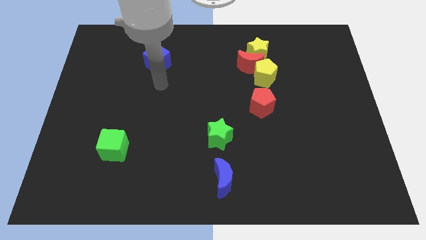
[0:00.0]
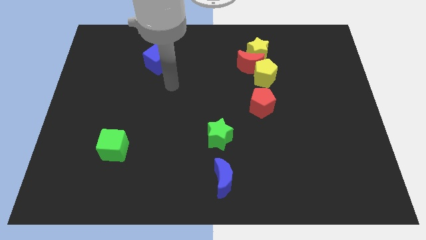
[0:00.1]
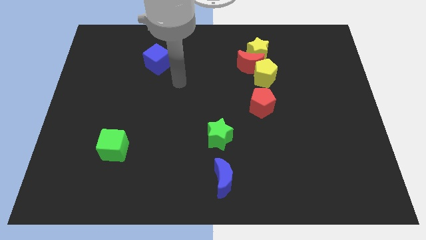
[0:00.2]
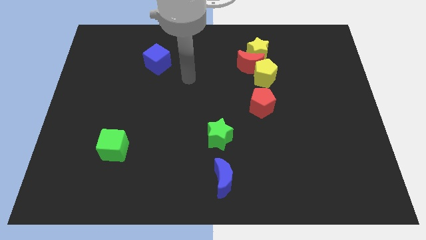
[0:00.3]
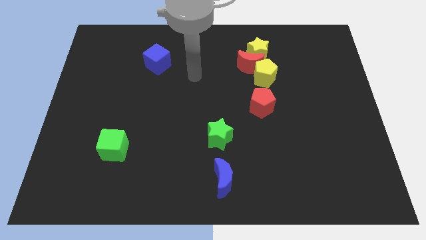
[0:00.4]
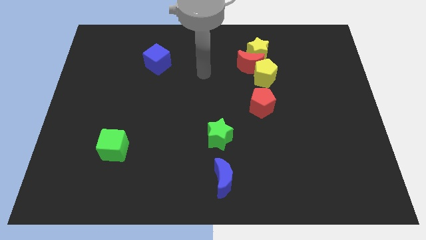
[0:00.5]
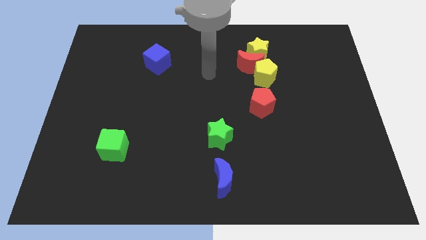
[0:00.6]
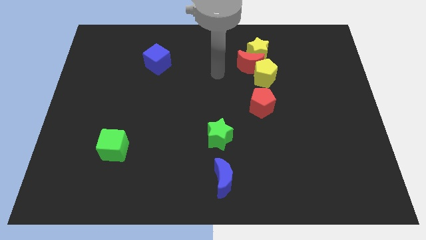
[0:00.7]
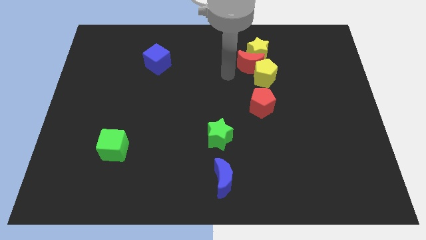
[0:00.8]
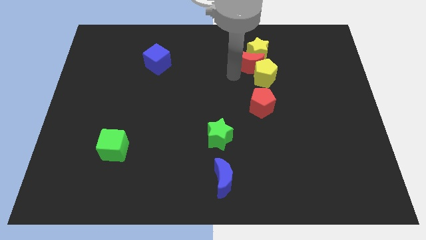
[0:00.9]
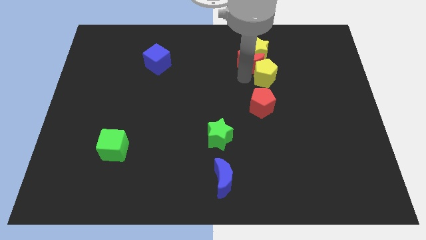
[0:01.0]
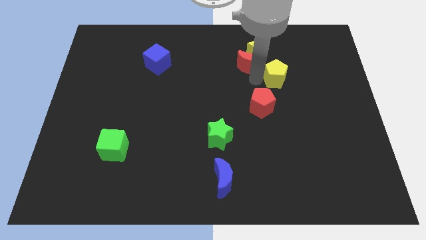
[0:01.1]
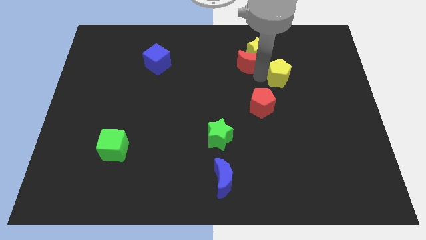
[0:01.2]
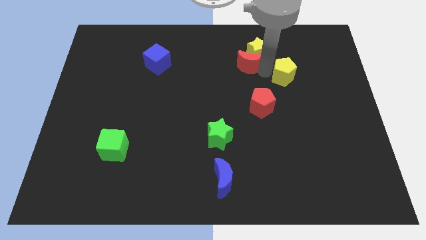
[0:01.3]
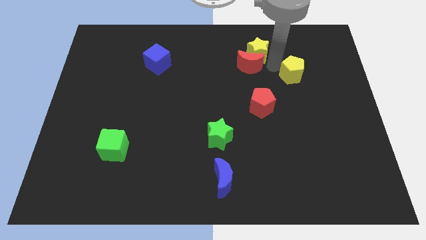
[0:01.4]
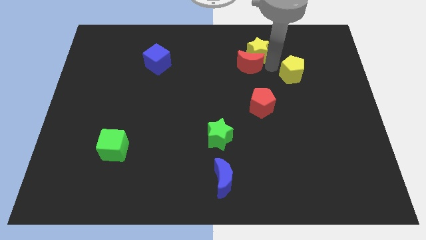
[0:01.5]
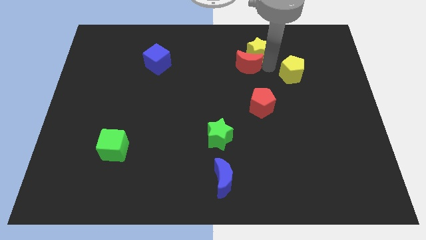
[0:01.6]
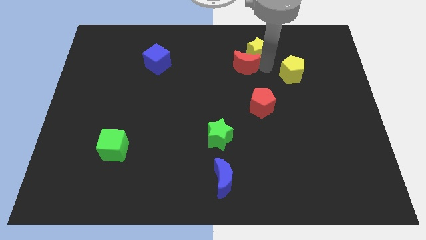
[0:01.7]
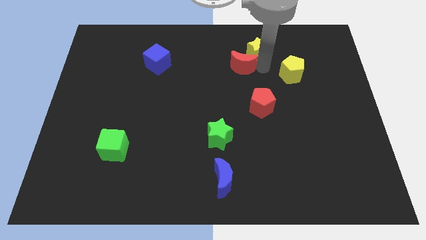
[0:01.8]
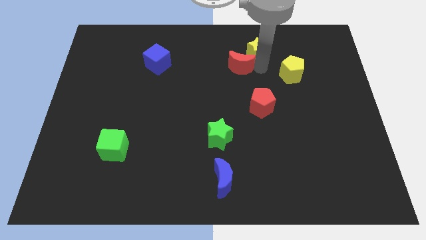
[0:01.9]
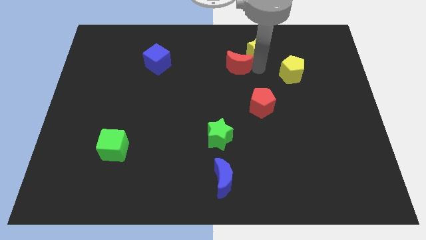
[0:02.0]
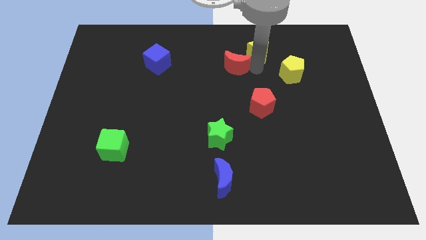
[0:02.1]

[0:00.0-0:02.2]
separate the red moon from the yellow star and yellow pentagon

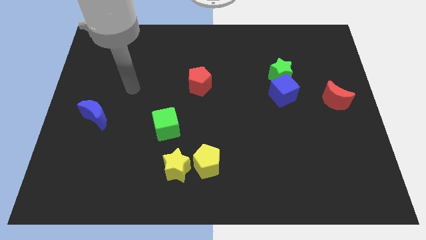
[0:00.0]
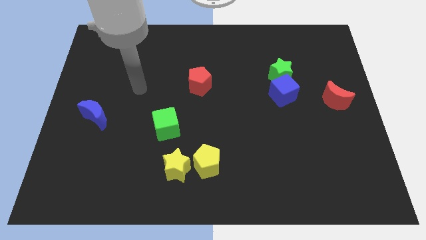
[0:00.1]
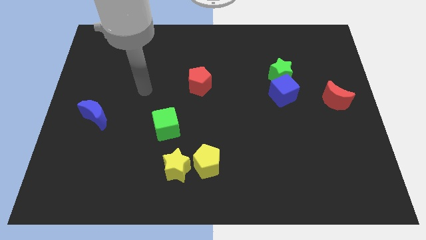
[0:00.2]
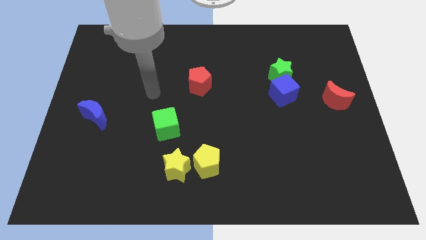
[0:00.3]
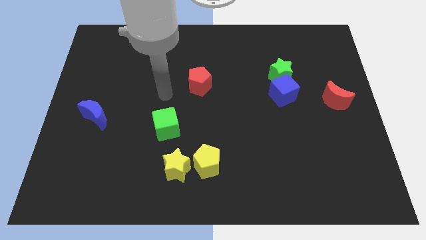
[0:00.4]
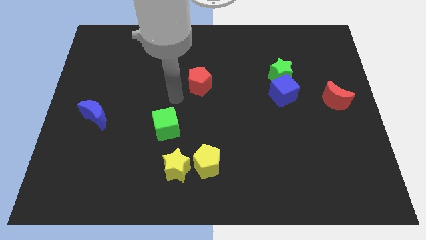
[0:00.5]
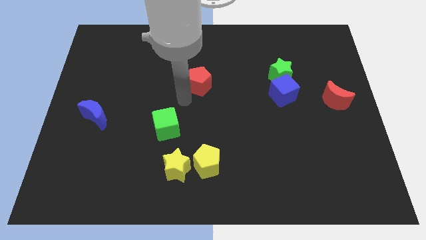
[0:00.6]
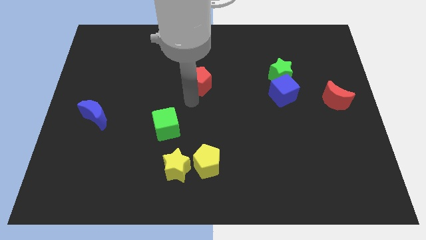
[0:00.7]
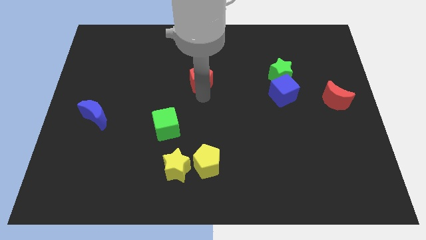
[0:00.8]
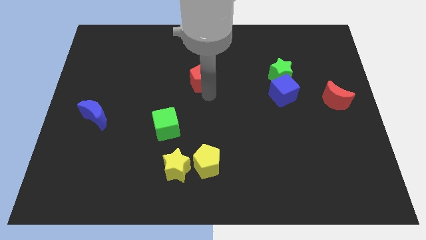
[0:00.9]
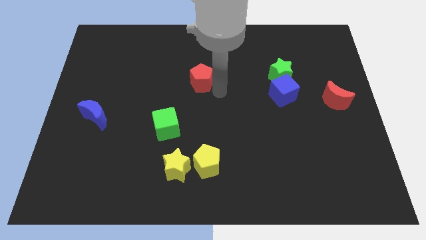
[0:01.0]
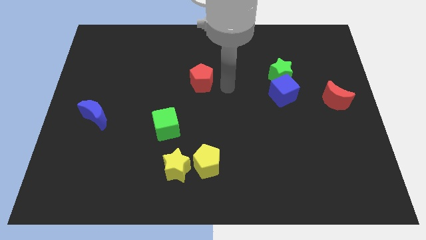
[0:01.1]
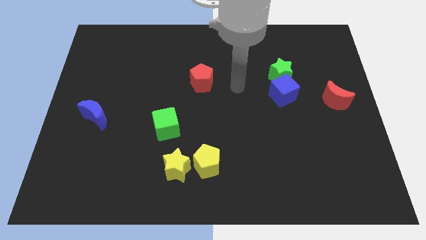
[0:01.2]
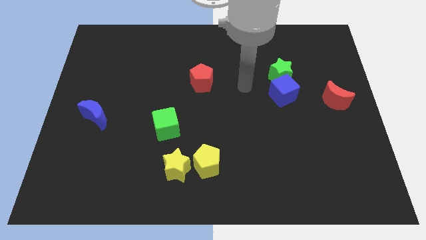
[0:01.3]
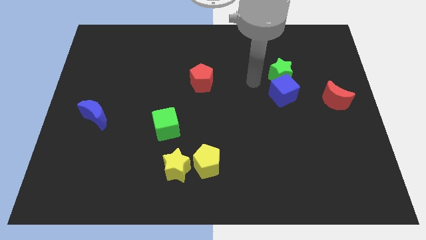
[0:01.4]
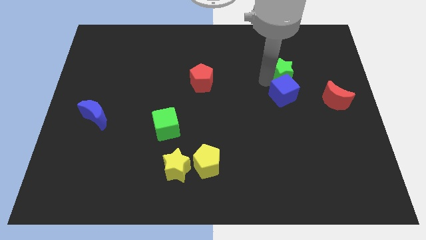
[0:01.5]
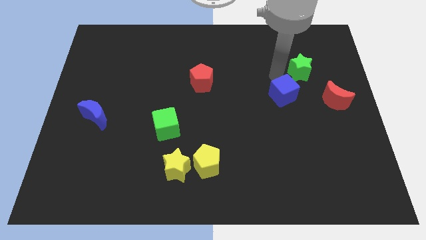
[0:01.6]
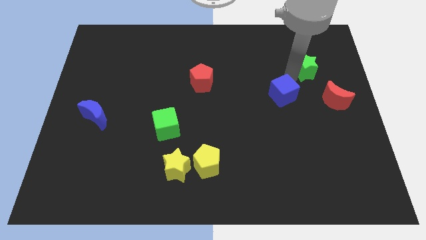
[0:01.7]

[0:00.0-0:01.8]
move the blue cube away from the green star

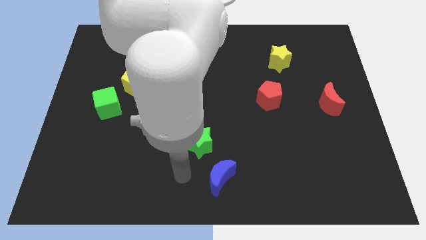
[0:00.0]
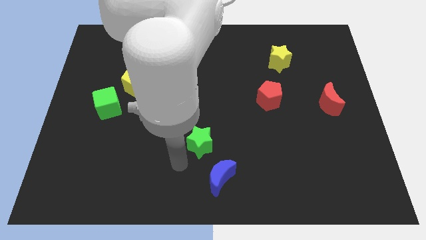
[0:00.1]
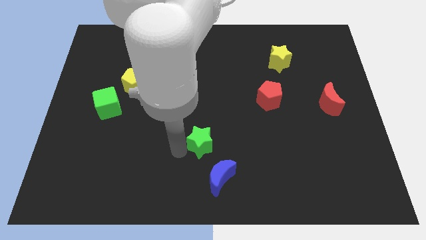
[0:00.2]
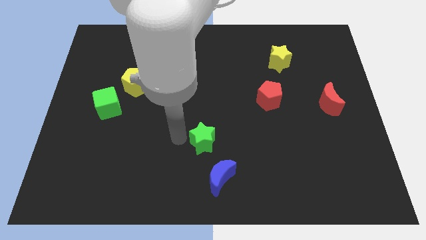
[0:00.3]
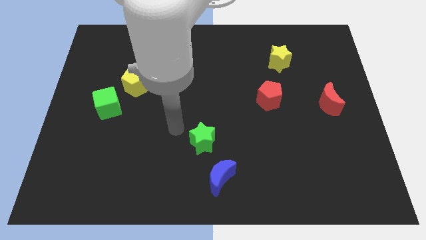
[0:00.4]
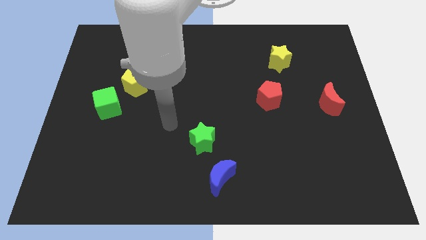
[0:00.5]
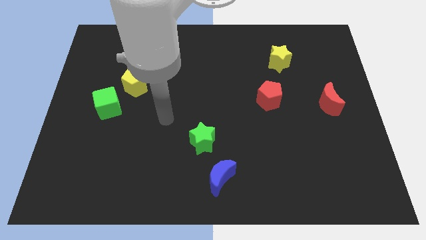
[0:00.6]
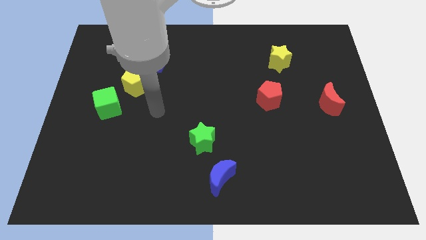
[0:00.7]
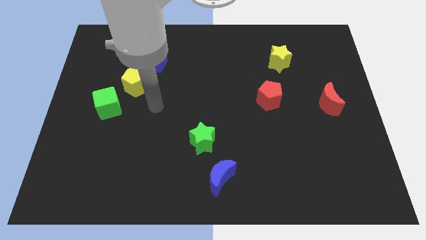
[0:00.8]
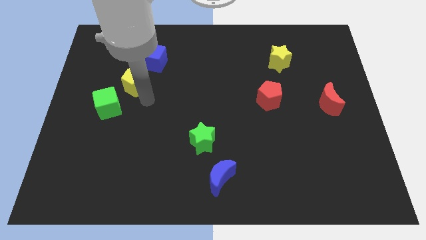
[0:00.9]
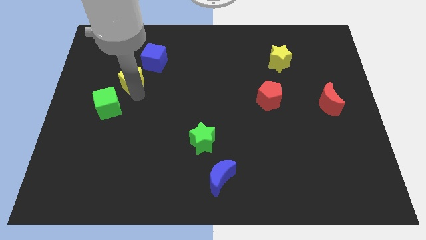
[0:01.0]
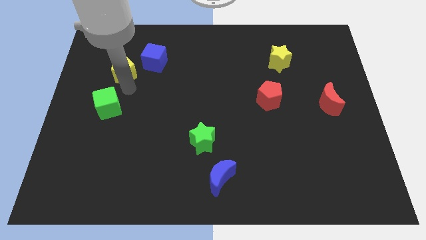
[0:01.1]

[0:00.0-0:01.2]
pull the green cube apart from the yellow pentagon

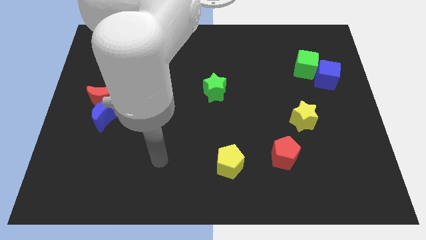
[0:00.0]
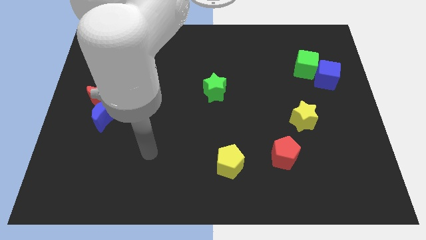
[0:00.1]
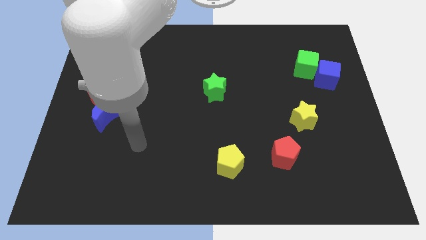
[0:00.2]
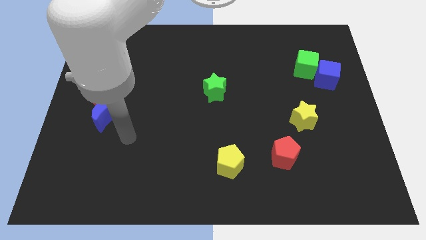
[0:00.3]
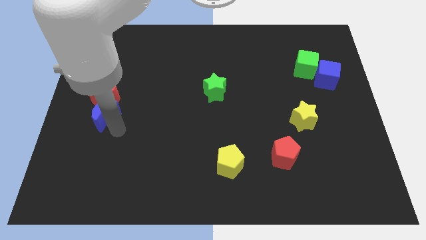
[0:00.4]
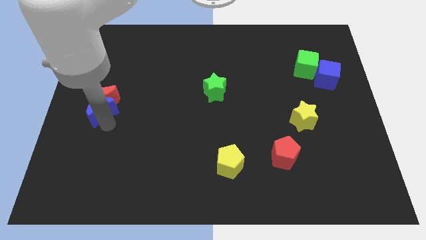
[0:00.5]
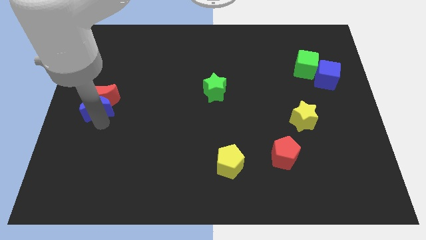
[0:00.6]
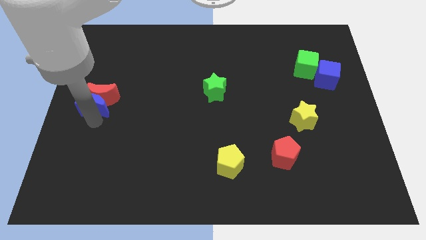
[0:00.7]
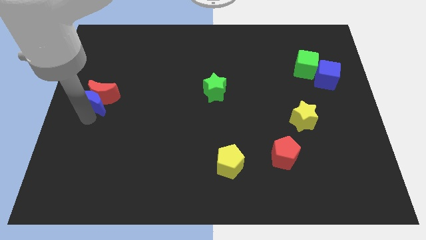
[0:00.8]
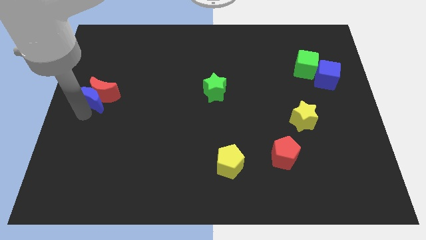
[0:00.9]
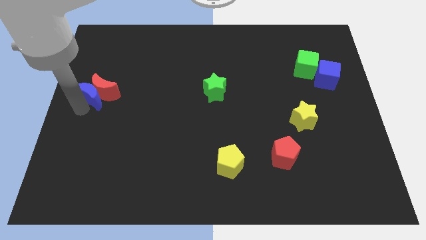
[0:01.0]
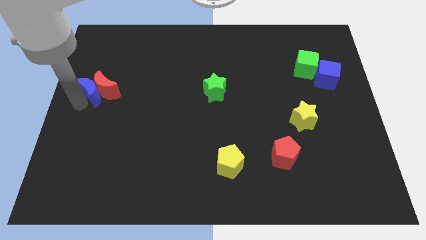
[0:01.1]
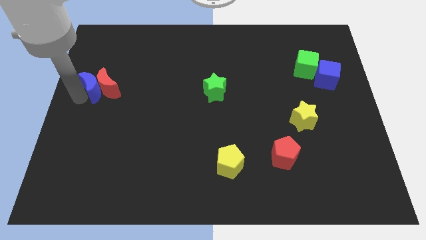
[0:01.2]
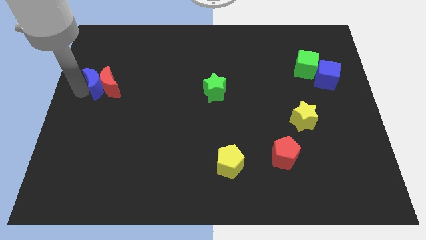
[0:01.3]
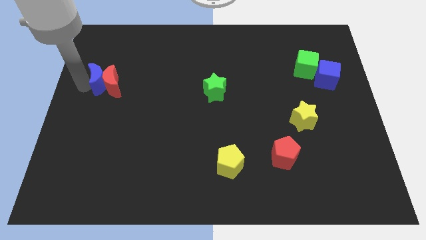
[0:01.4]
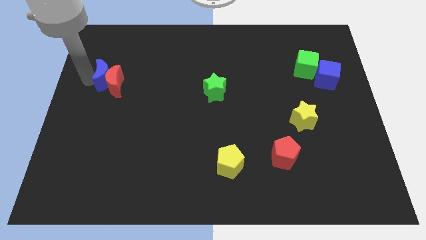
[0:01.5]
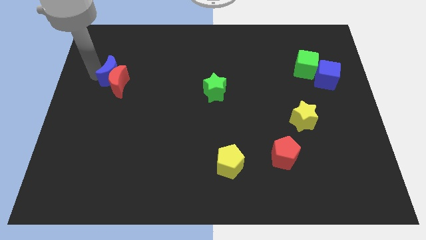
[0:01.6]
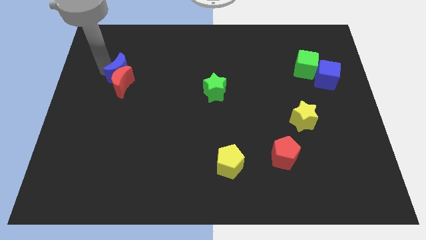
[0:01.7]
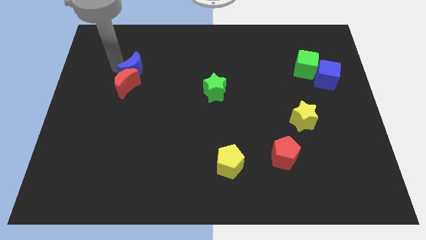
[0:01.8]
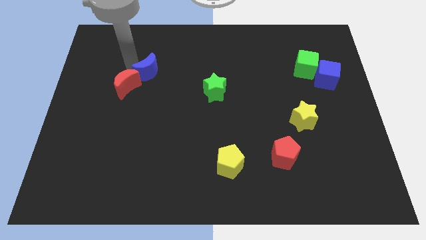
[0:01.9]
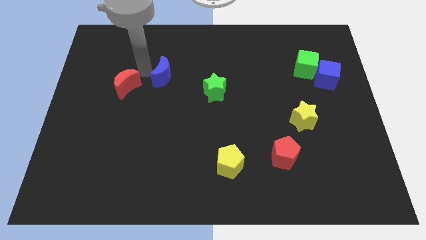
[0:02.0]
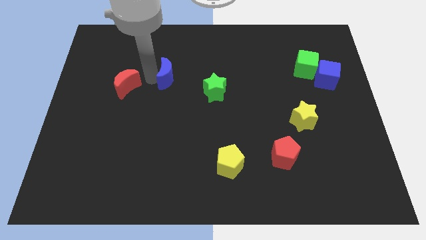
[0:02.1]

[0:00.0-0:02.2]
move the red moon away from the blue moon

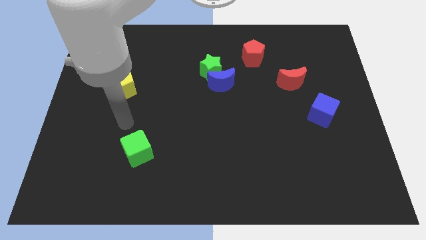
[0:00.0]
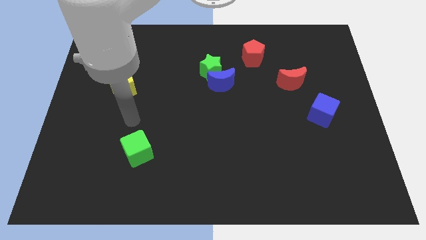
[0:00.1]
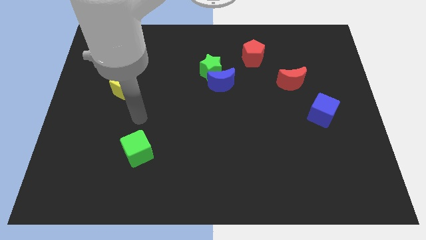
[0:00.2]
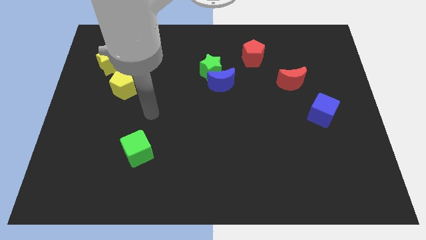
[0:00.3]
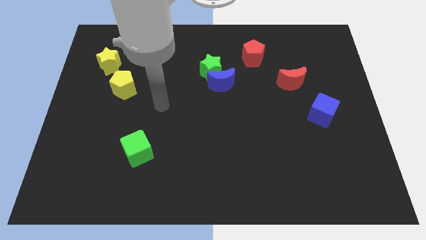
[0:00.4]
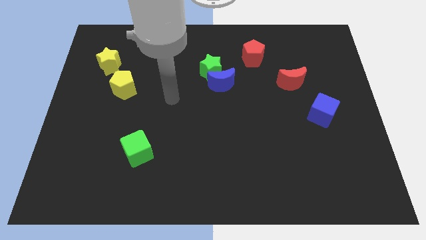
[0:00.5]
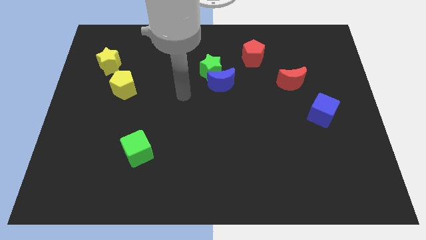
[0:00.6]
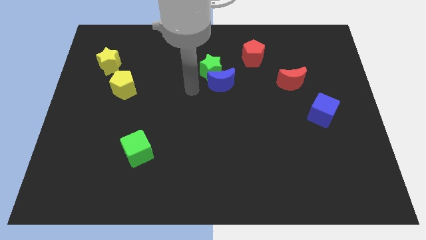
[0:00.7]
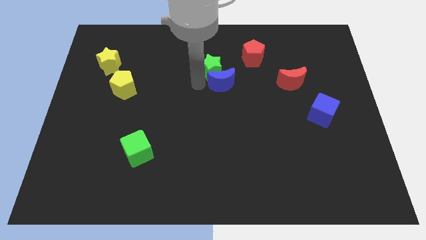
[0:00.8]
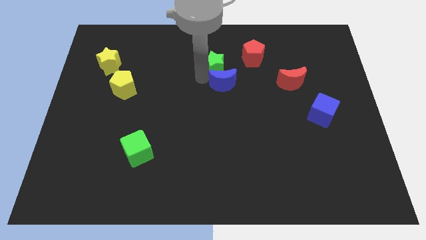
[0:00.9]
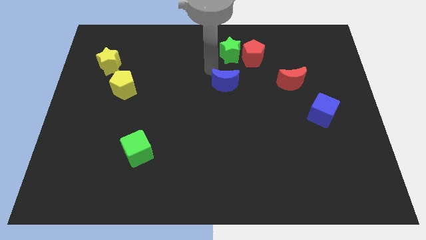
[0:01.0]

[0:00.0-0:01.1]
separate the blue moon from the green star

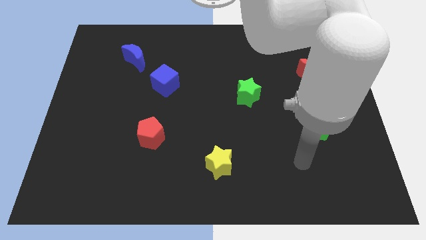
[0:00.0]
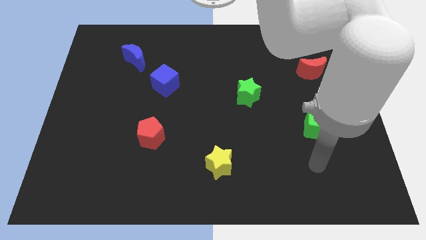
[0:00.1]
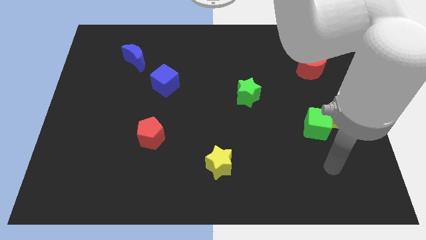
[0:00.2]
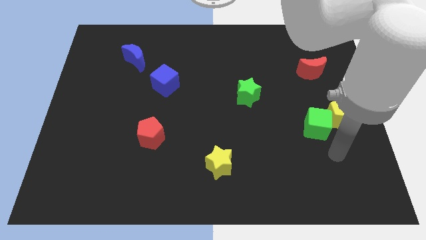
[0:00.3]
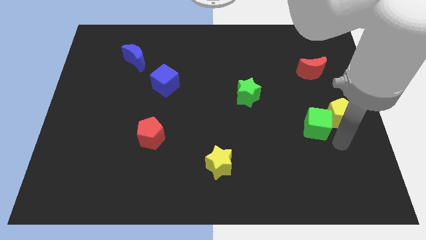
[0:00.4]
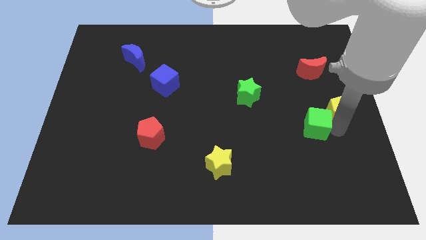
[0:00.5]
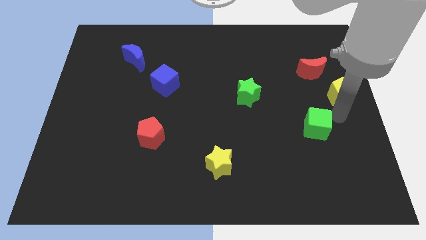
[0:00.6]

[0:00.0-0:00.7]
separate the green cube from the yellow pentagon
